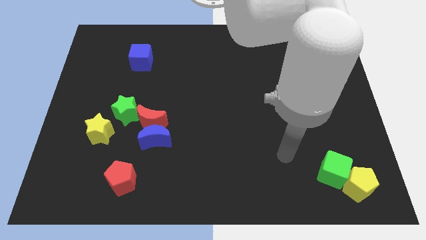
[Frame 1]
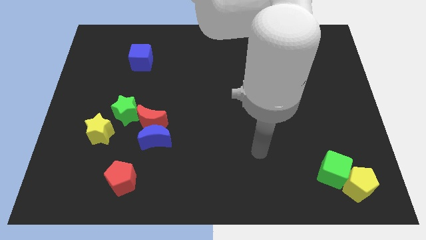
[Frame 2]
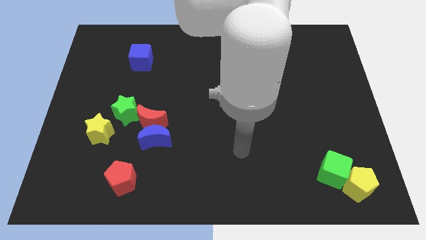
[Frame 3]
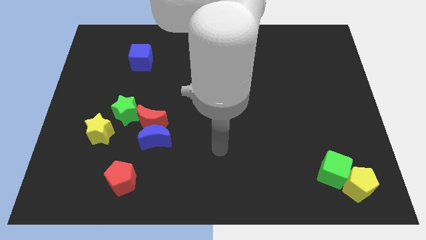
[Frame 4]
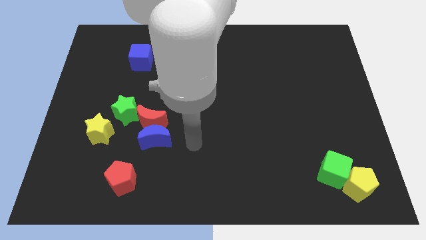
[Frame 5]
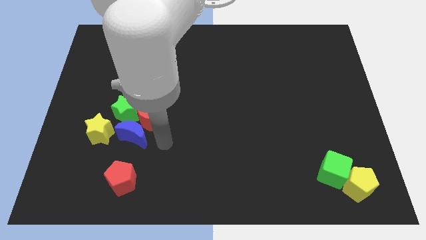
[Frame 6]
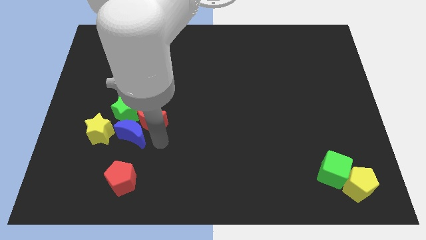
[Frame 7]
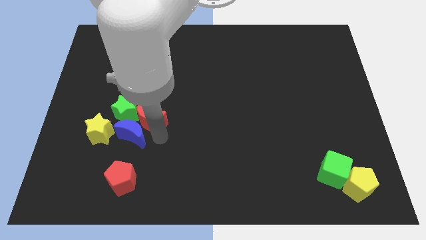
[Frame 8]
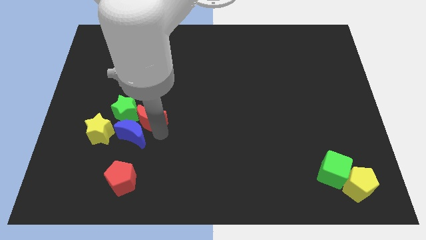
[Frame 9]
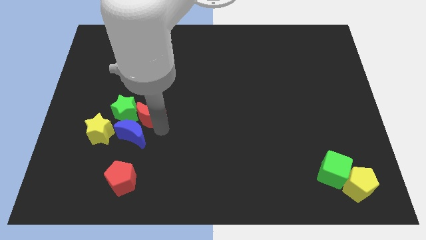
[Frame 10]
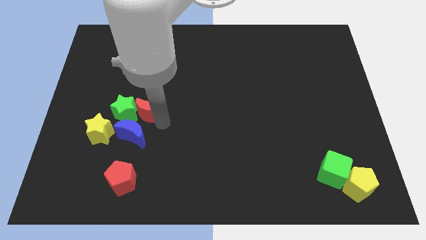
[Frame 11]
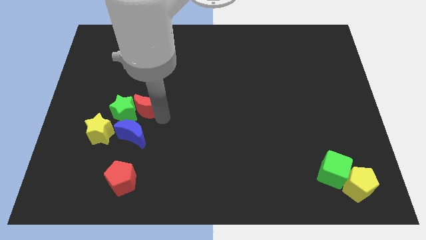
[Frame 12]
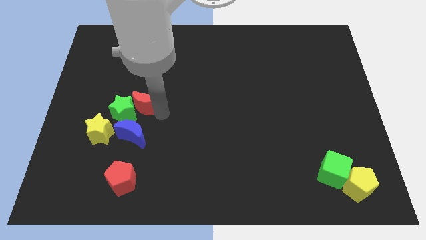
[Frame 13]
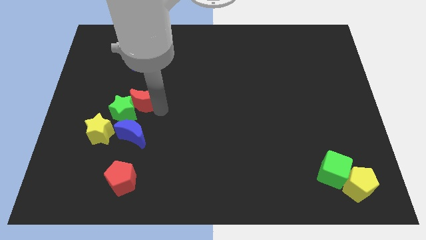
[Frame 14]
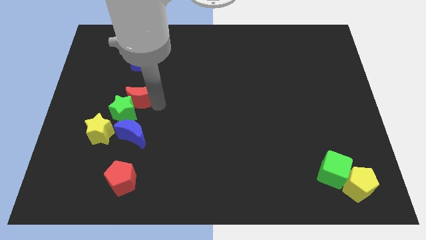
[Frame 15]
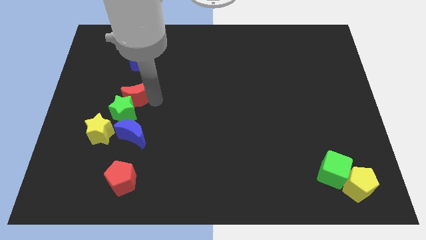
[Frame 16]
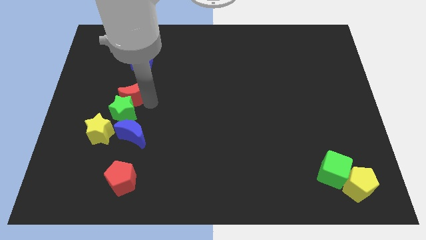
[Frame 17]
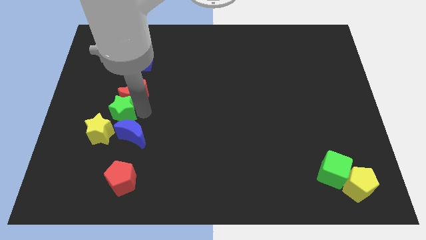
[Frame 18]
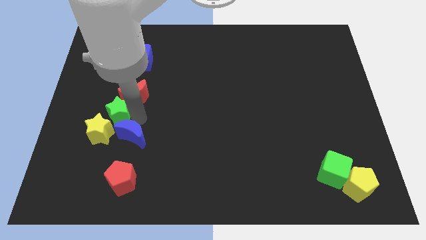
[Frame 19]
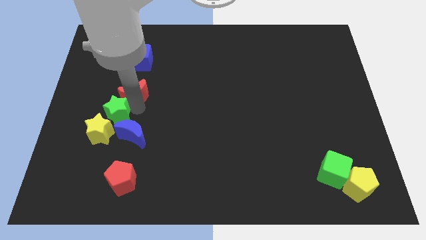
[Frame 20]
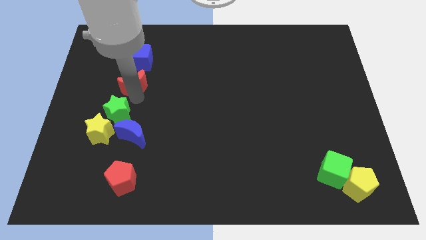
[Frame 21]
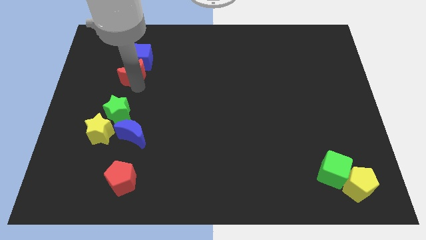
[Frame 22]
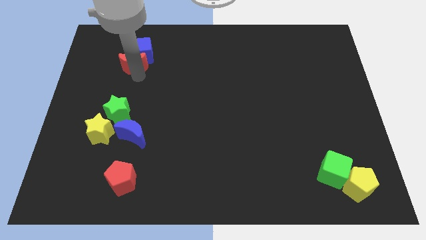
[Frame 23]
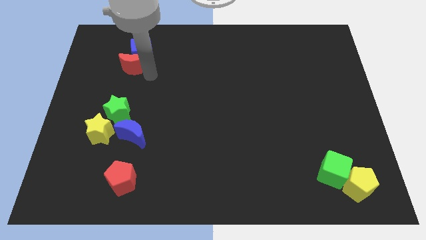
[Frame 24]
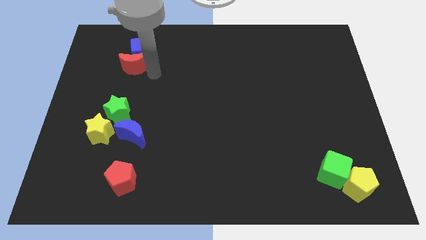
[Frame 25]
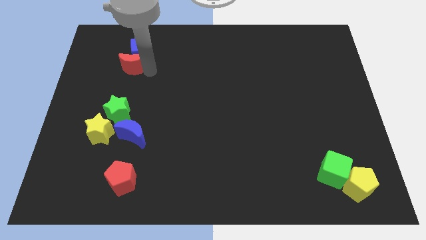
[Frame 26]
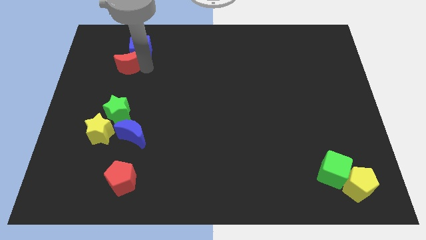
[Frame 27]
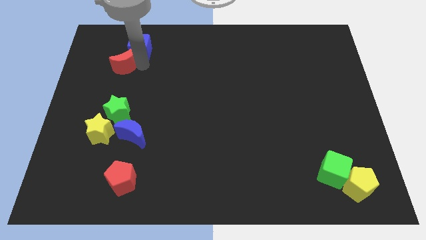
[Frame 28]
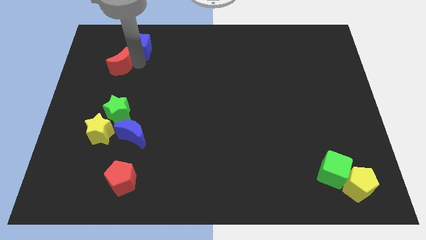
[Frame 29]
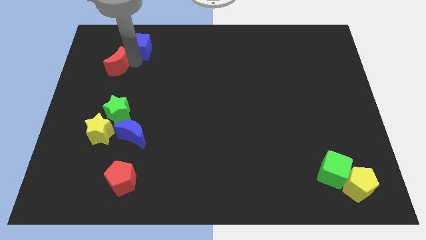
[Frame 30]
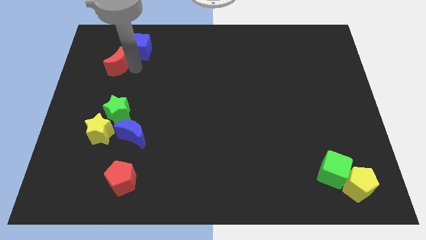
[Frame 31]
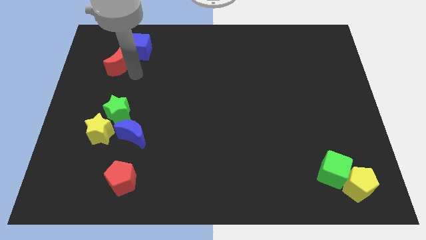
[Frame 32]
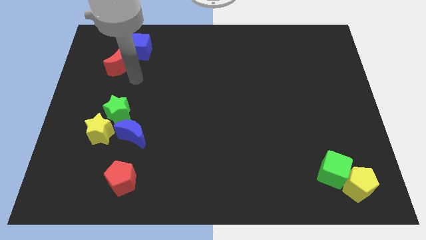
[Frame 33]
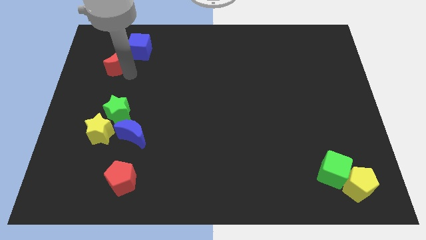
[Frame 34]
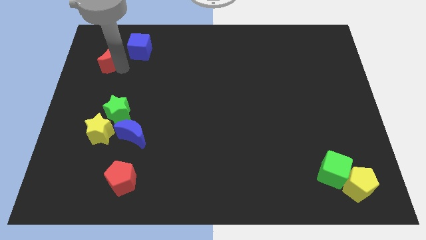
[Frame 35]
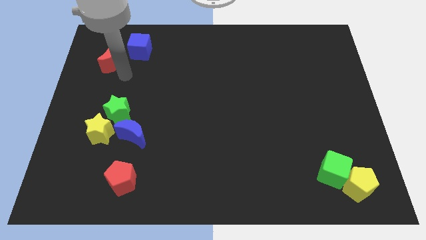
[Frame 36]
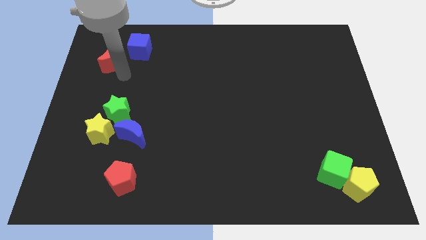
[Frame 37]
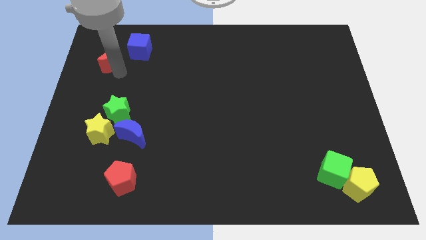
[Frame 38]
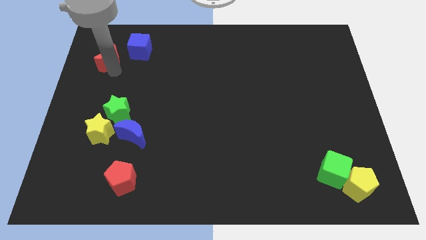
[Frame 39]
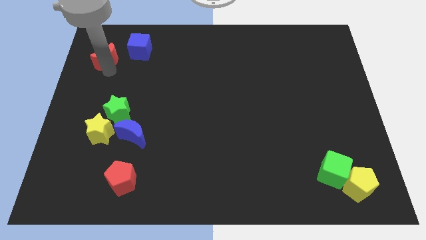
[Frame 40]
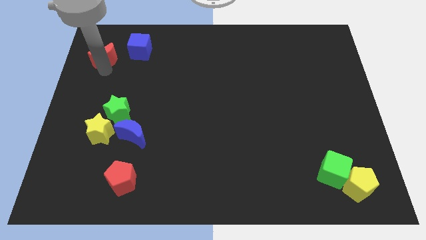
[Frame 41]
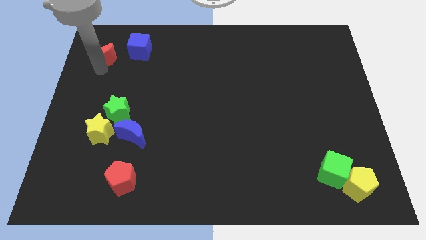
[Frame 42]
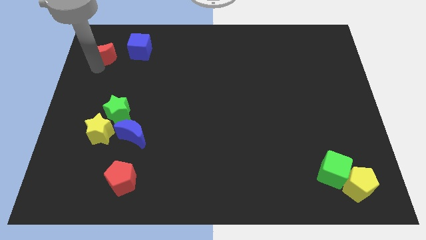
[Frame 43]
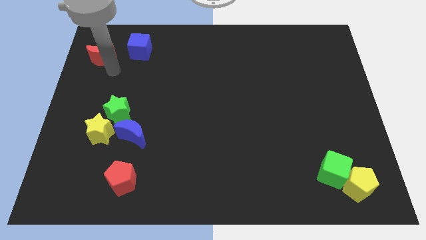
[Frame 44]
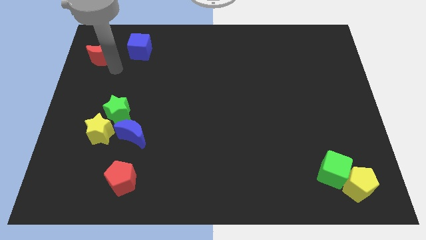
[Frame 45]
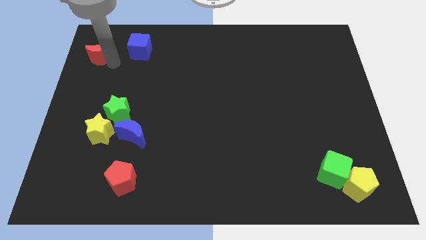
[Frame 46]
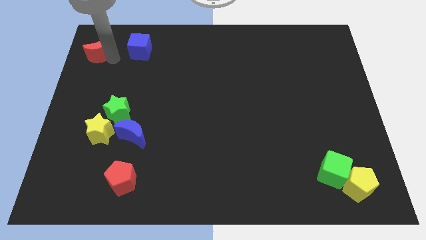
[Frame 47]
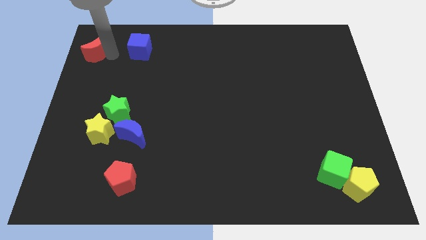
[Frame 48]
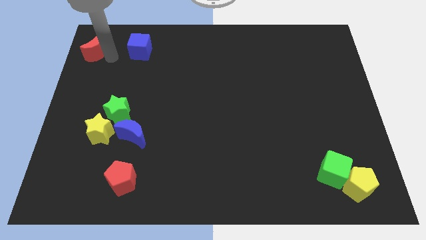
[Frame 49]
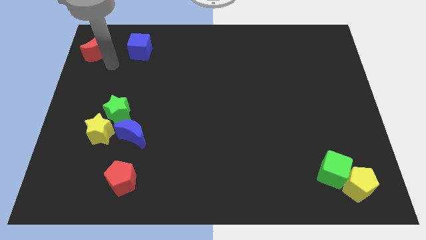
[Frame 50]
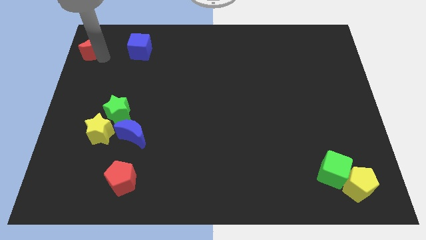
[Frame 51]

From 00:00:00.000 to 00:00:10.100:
move the red moon to the top left corner

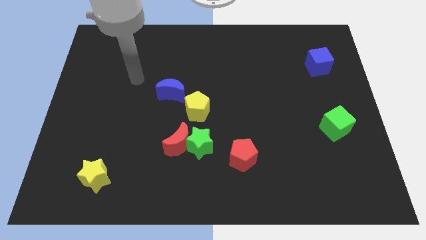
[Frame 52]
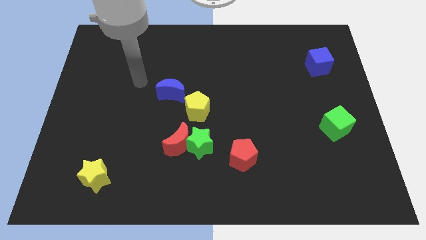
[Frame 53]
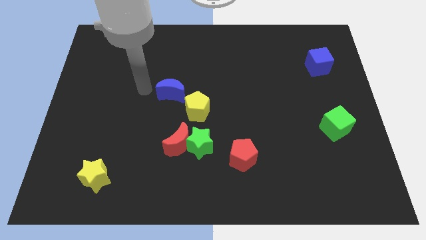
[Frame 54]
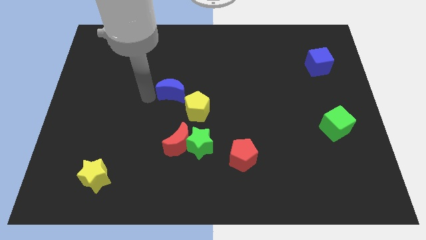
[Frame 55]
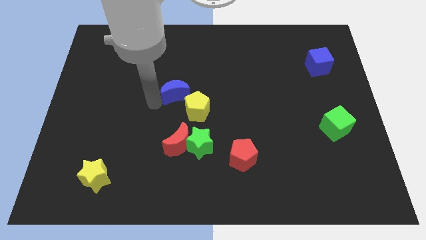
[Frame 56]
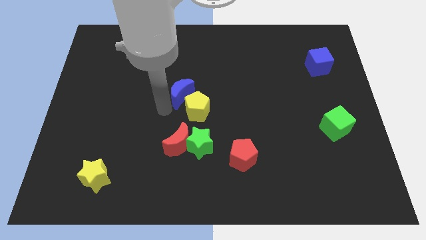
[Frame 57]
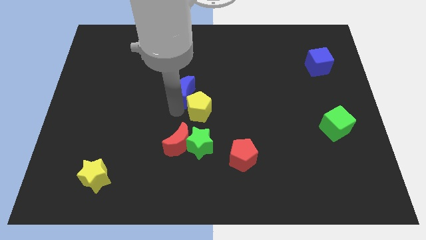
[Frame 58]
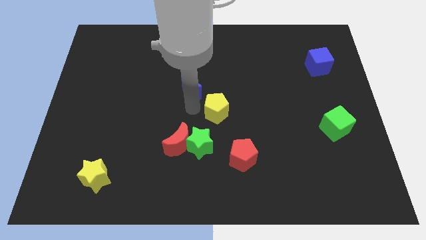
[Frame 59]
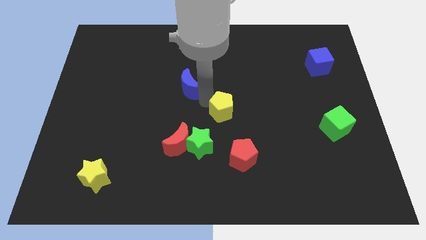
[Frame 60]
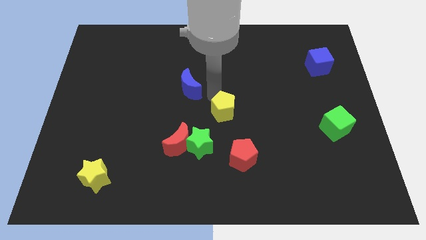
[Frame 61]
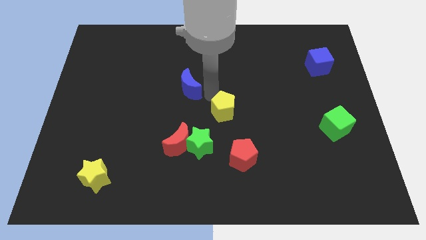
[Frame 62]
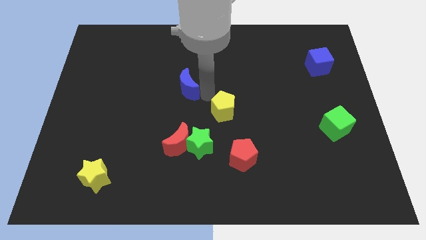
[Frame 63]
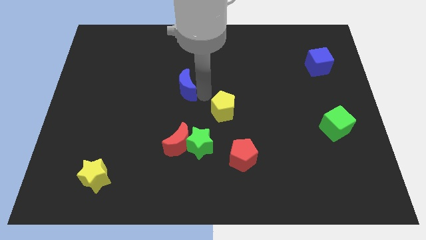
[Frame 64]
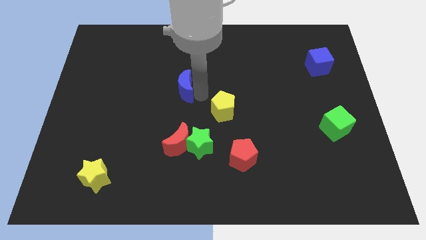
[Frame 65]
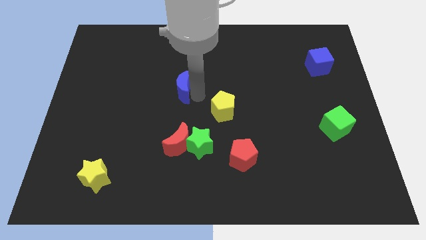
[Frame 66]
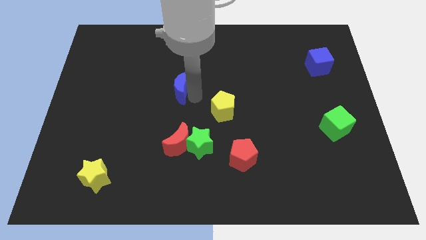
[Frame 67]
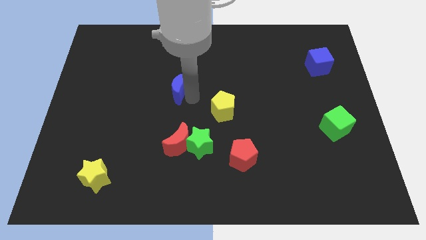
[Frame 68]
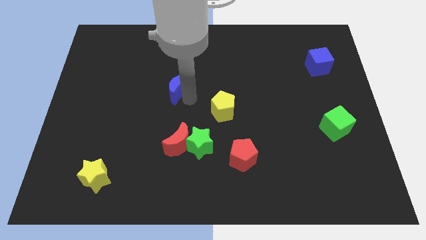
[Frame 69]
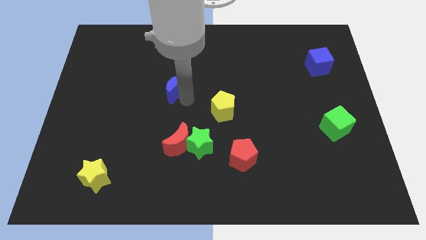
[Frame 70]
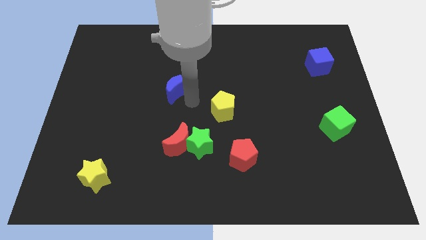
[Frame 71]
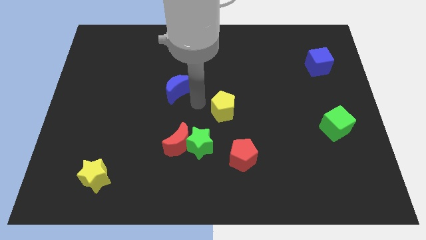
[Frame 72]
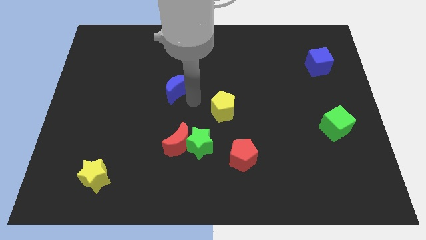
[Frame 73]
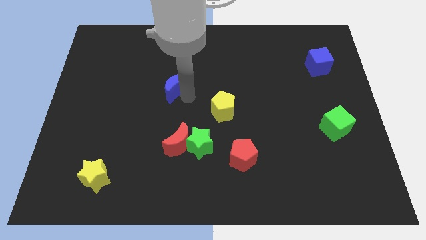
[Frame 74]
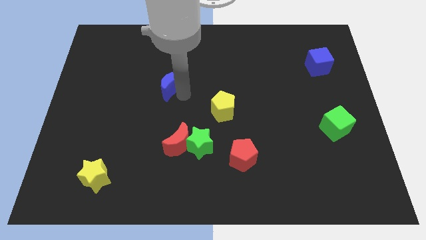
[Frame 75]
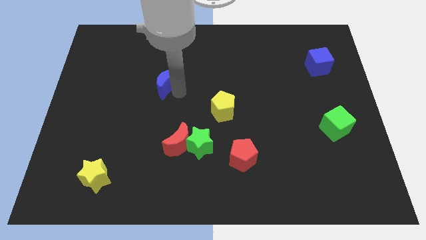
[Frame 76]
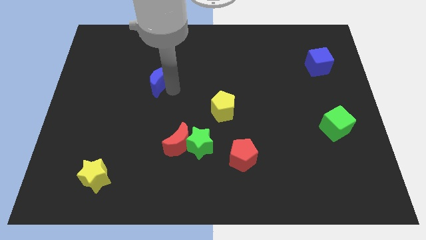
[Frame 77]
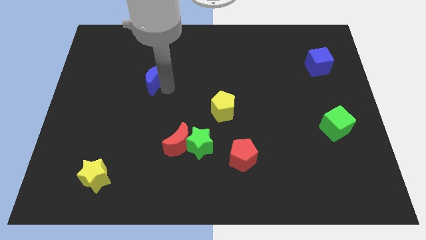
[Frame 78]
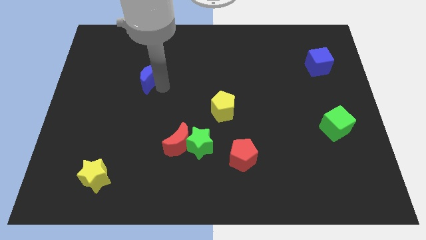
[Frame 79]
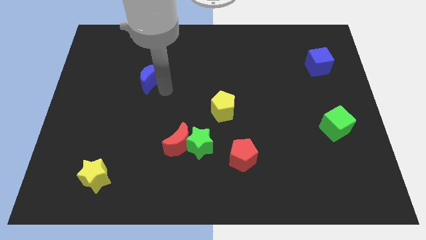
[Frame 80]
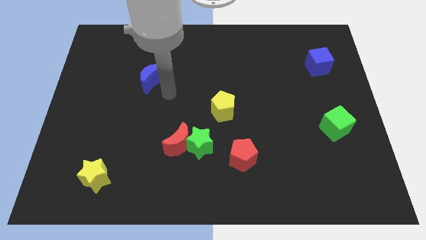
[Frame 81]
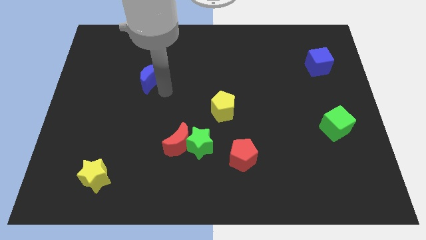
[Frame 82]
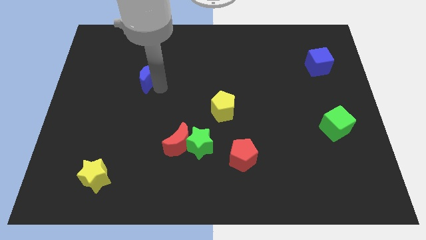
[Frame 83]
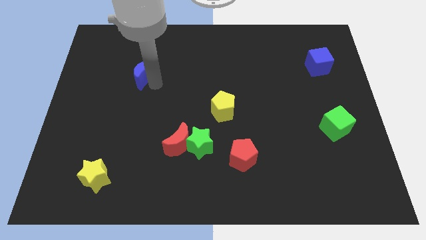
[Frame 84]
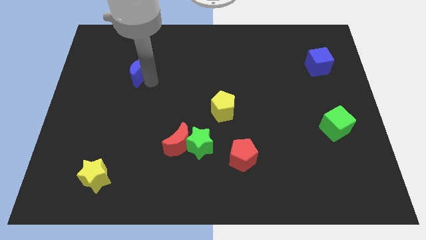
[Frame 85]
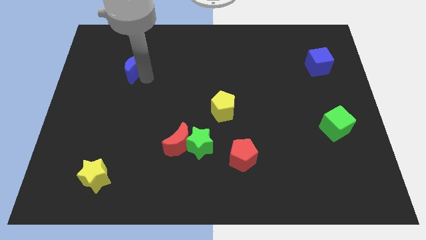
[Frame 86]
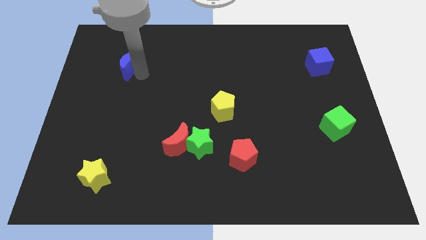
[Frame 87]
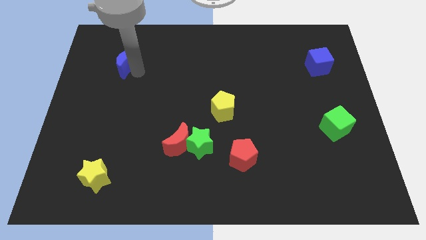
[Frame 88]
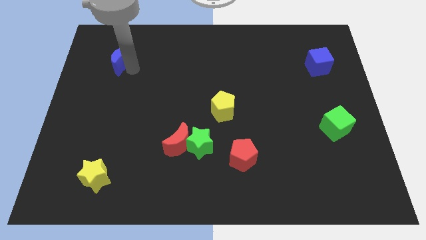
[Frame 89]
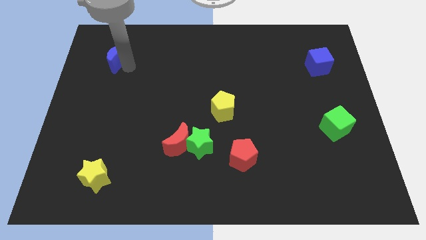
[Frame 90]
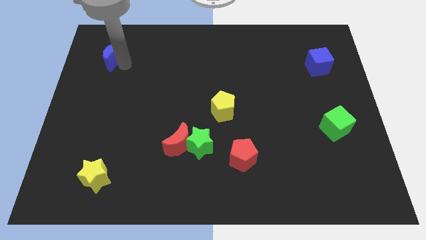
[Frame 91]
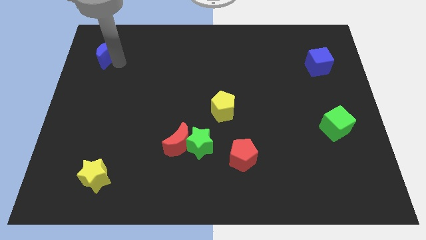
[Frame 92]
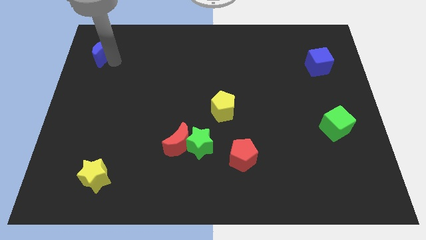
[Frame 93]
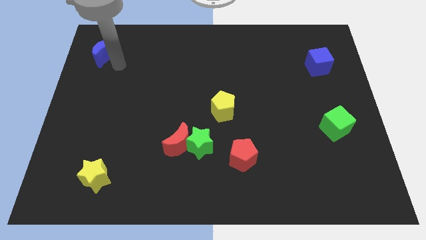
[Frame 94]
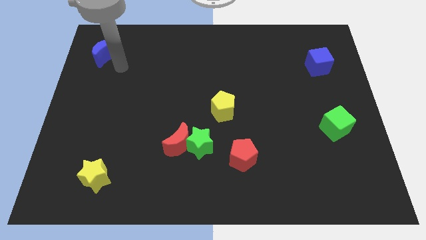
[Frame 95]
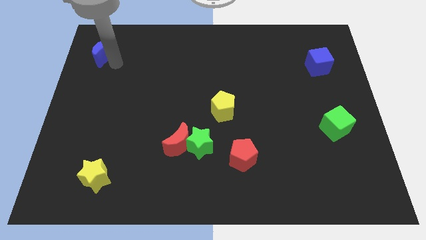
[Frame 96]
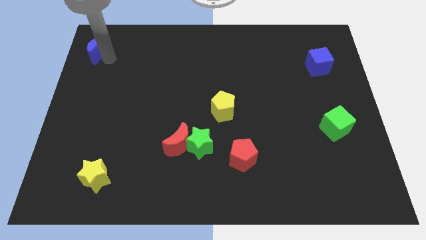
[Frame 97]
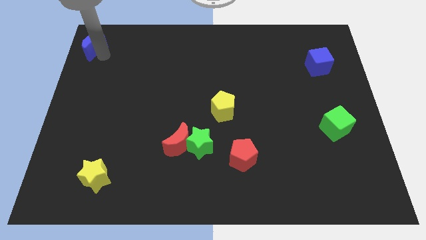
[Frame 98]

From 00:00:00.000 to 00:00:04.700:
move the blue moon to the top left
